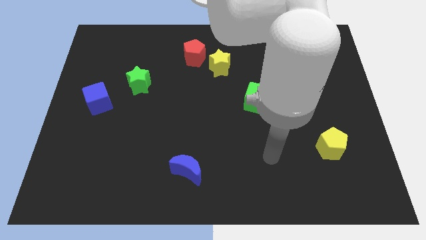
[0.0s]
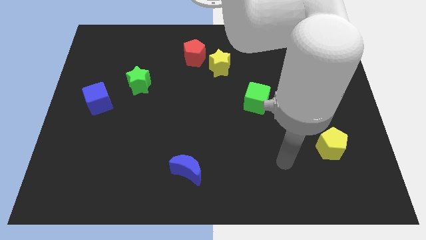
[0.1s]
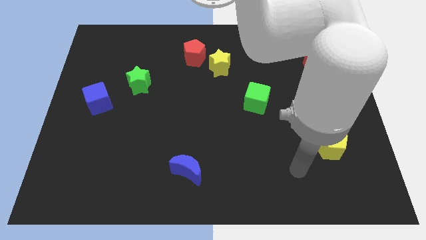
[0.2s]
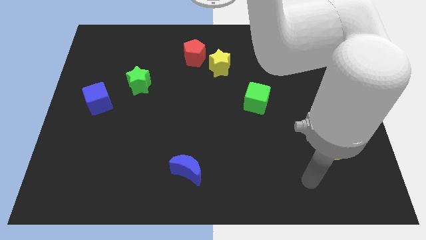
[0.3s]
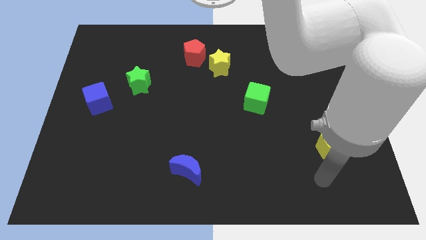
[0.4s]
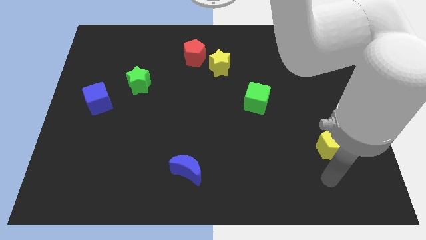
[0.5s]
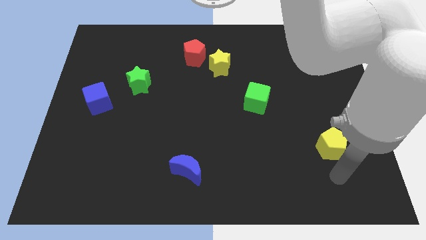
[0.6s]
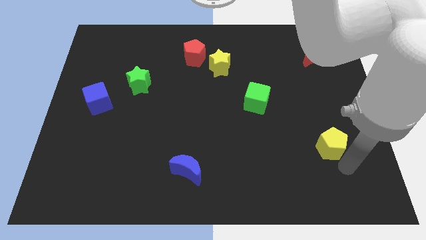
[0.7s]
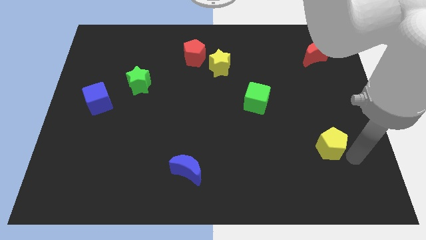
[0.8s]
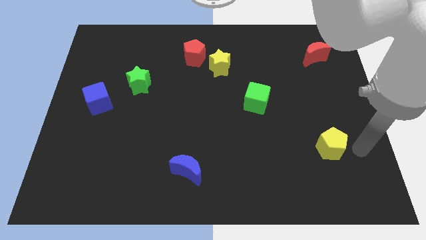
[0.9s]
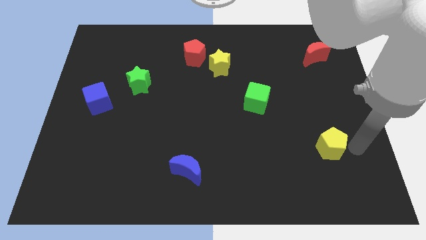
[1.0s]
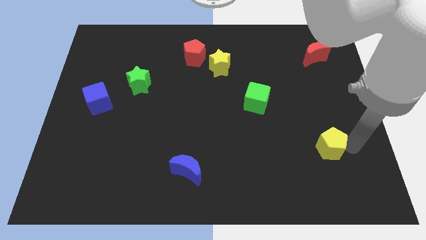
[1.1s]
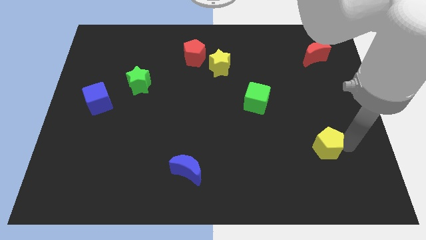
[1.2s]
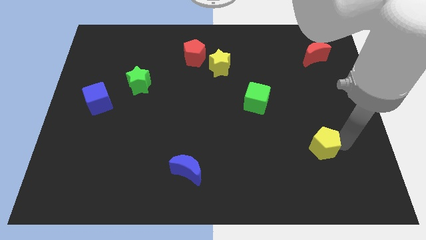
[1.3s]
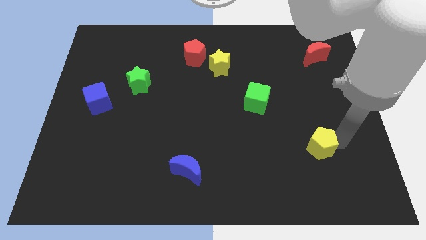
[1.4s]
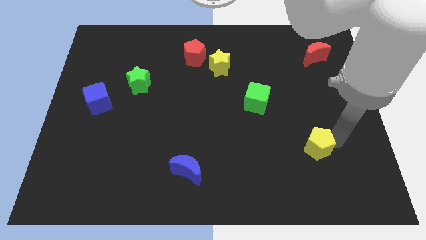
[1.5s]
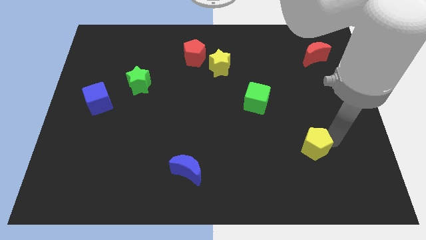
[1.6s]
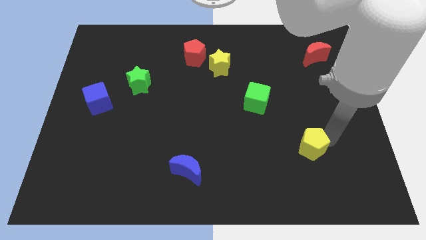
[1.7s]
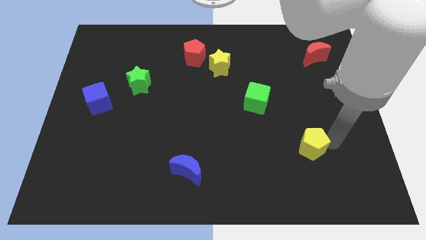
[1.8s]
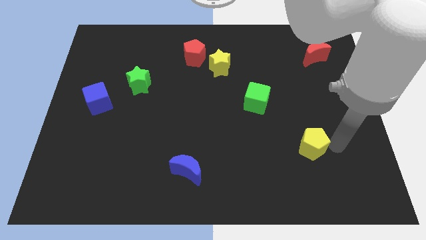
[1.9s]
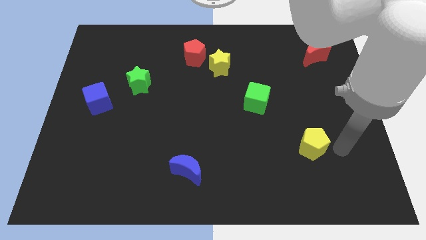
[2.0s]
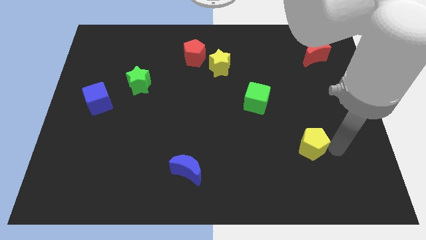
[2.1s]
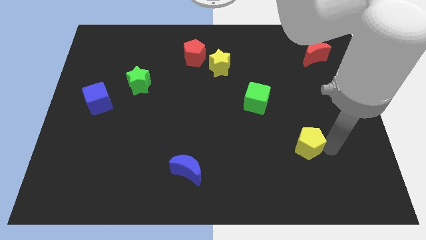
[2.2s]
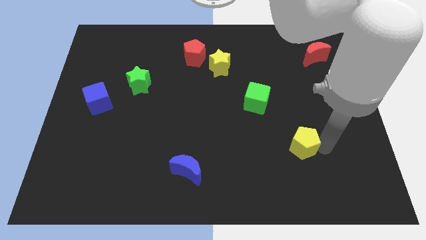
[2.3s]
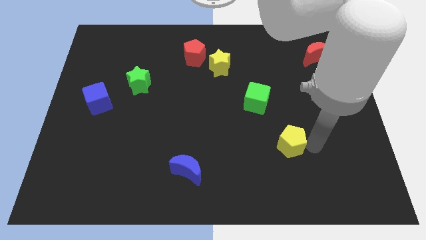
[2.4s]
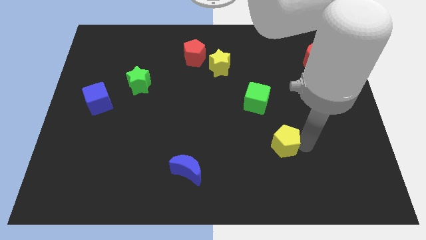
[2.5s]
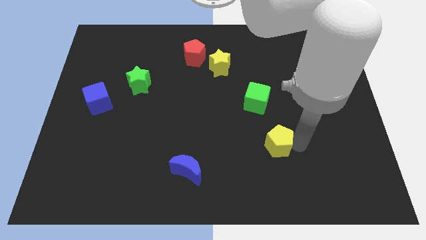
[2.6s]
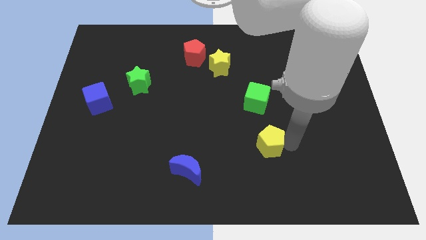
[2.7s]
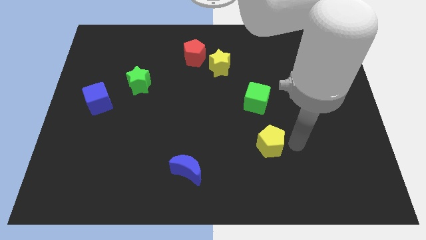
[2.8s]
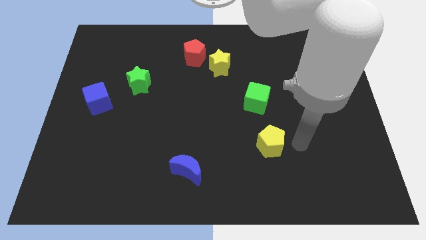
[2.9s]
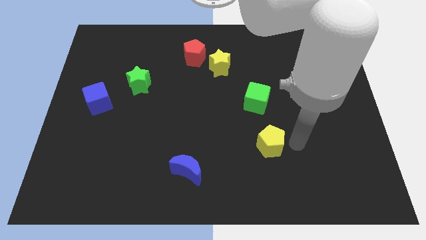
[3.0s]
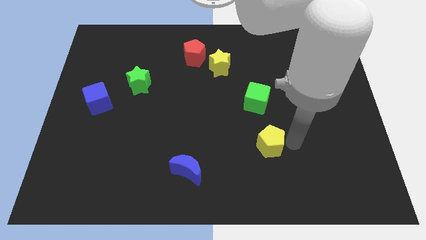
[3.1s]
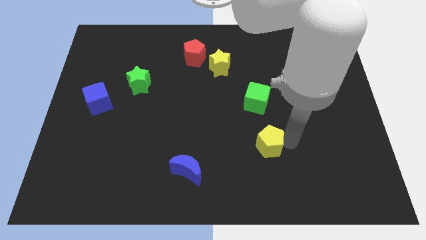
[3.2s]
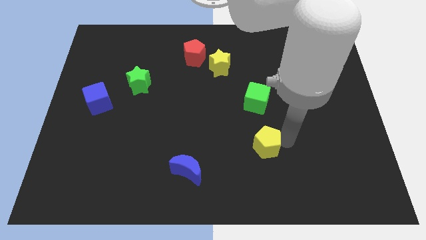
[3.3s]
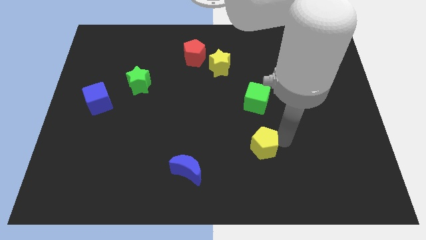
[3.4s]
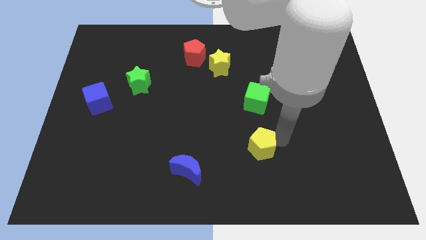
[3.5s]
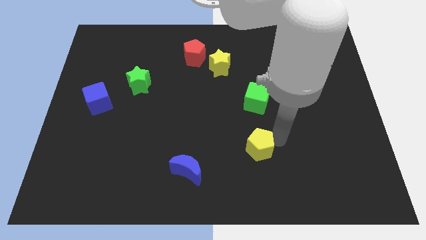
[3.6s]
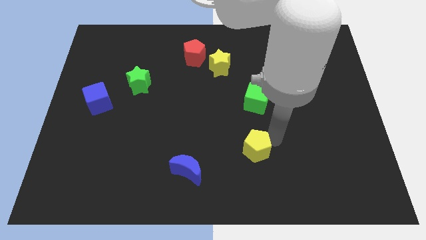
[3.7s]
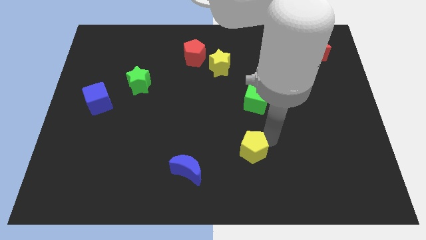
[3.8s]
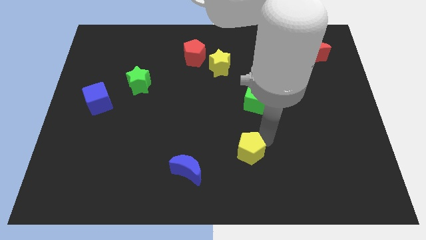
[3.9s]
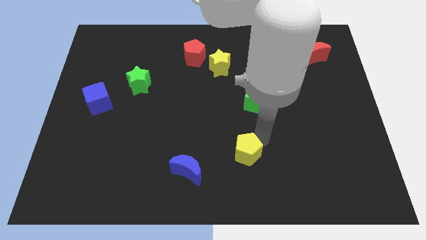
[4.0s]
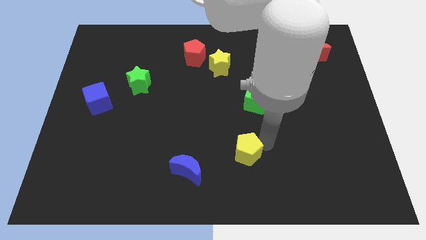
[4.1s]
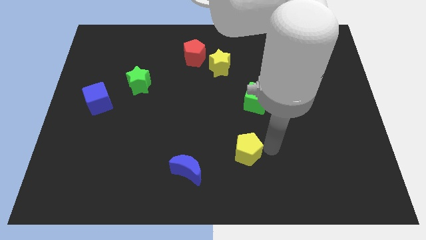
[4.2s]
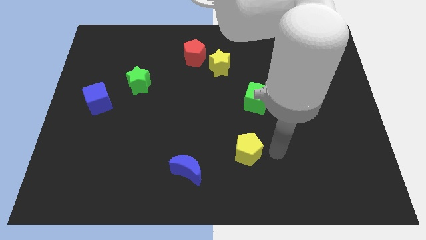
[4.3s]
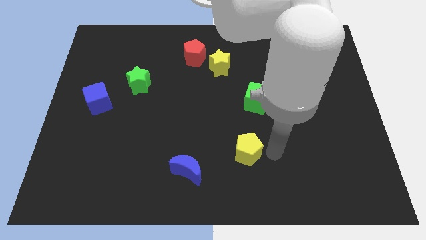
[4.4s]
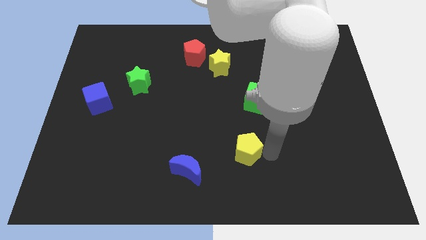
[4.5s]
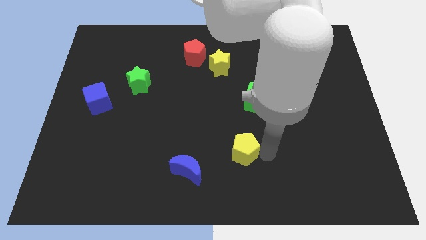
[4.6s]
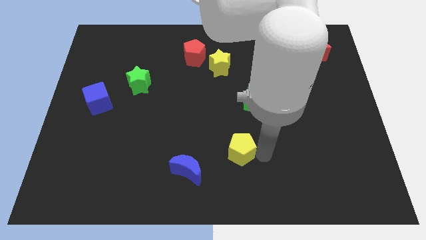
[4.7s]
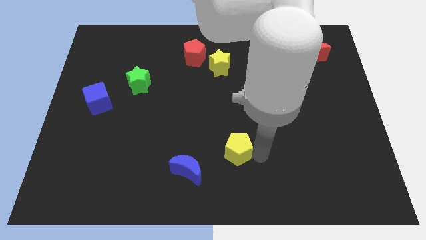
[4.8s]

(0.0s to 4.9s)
put the yellow pentagon to the top right of the blue moon

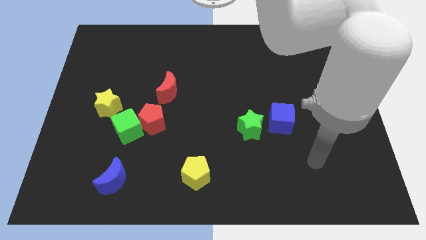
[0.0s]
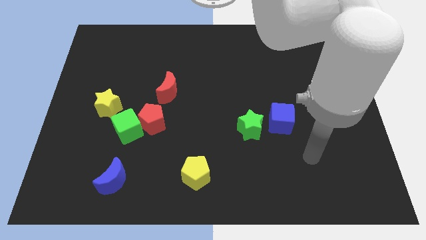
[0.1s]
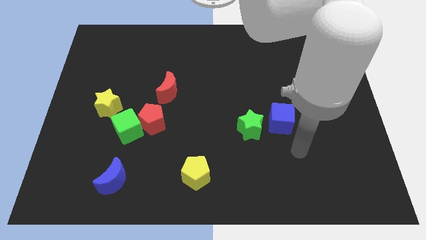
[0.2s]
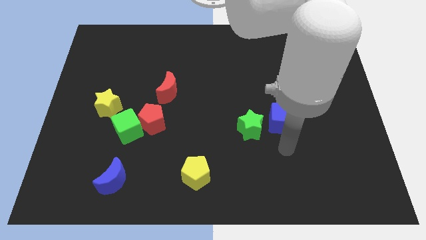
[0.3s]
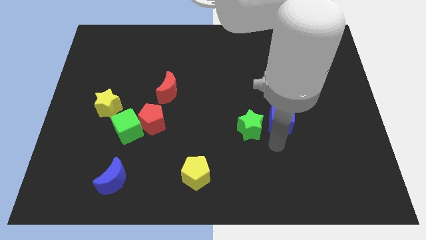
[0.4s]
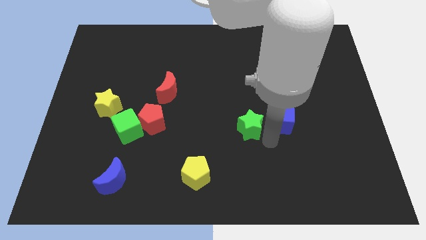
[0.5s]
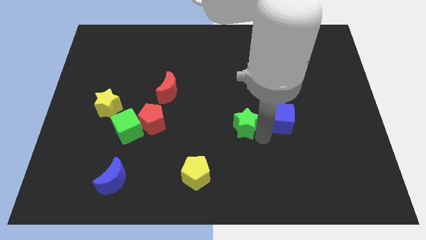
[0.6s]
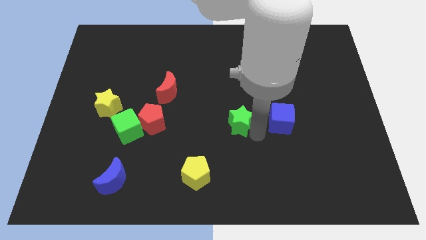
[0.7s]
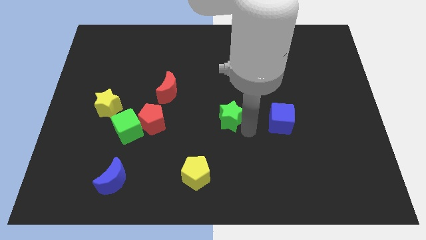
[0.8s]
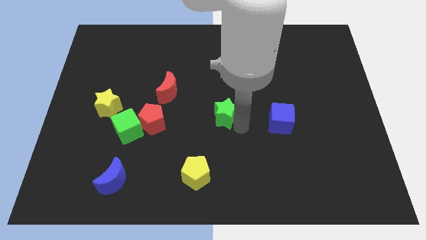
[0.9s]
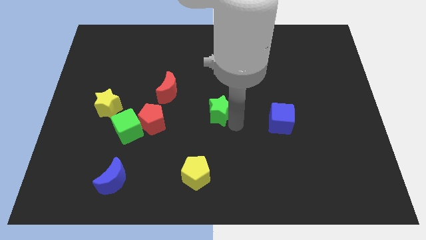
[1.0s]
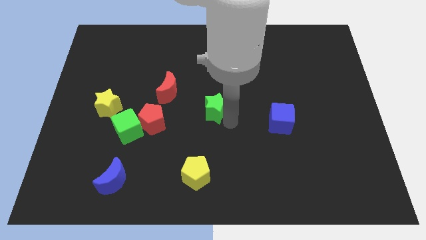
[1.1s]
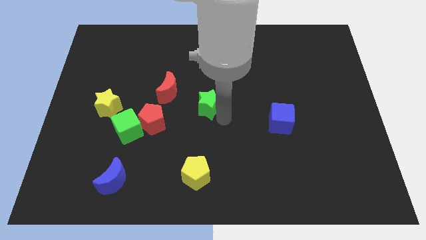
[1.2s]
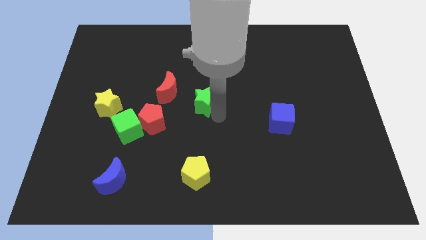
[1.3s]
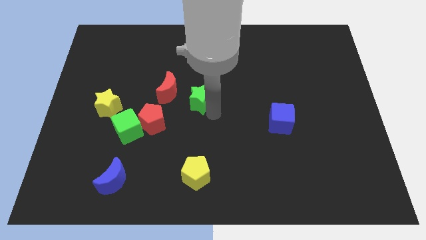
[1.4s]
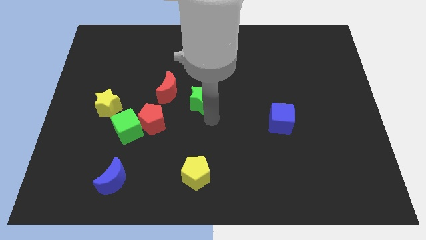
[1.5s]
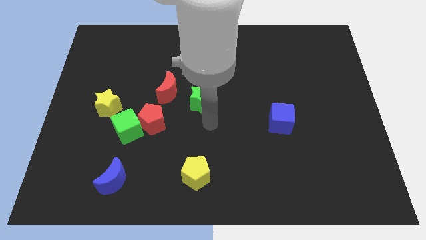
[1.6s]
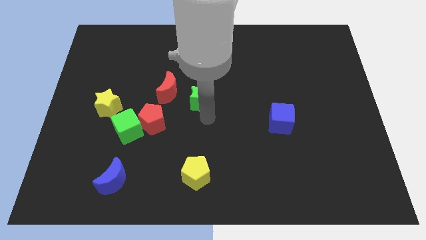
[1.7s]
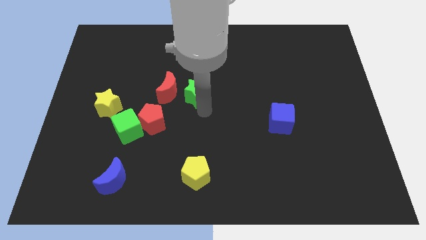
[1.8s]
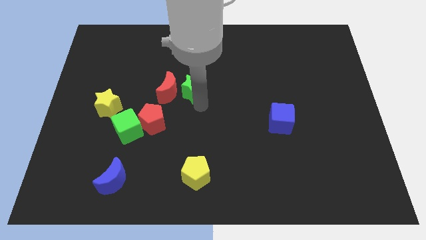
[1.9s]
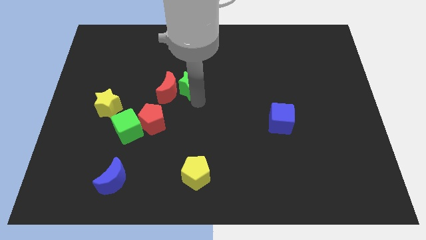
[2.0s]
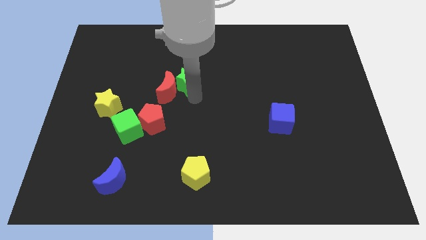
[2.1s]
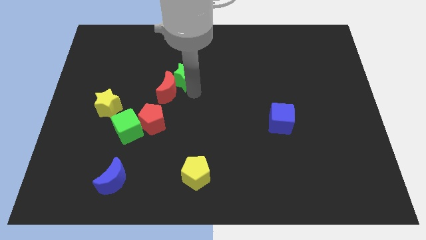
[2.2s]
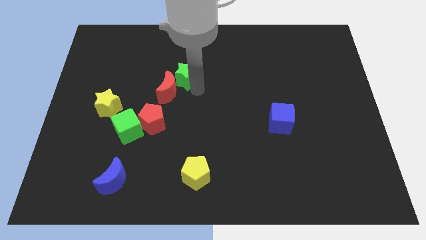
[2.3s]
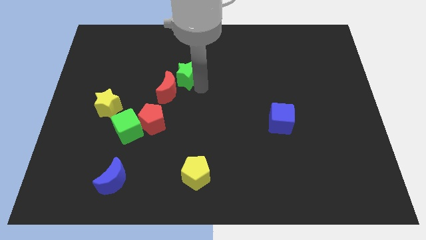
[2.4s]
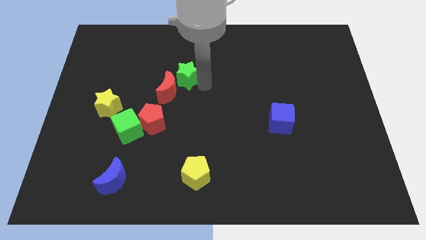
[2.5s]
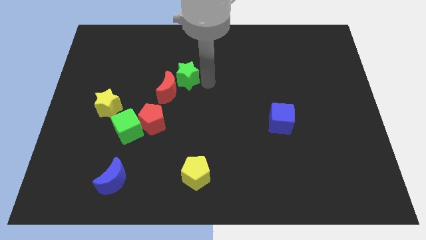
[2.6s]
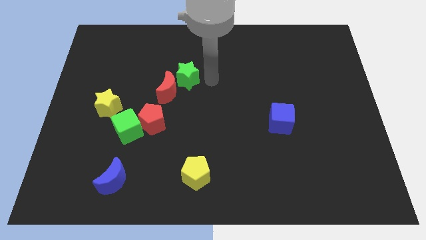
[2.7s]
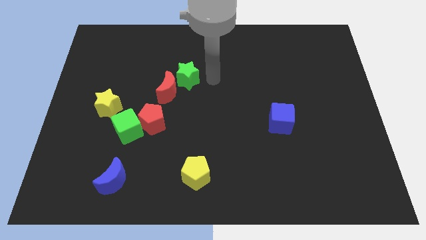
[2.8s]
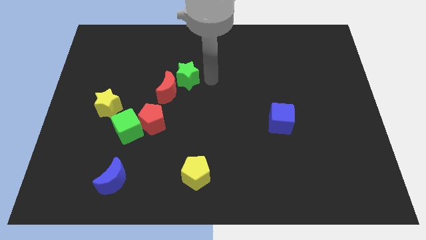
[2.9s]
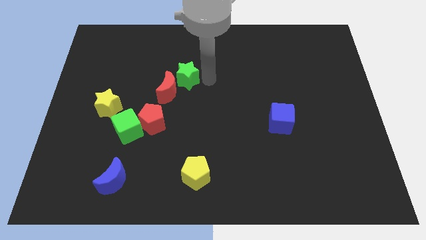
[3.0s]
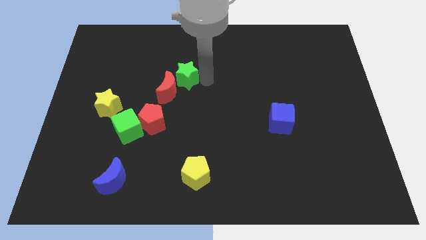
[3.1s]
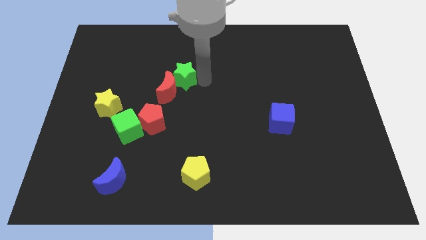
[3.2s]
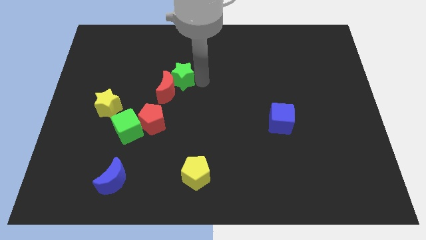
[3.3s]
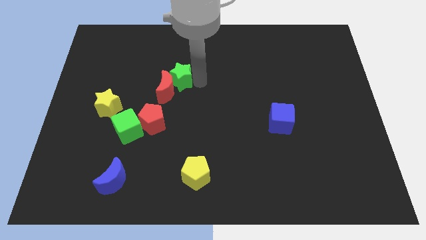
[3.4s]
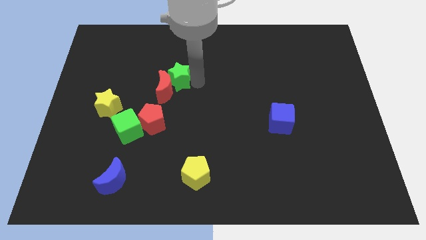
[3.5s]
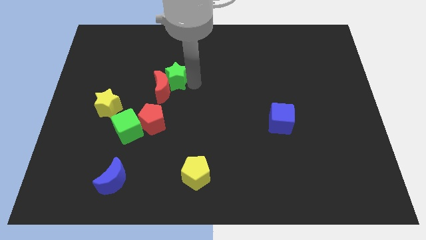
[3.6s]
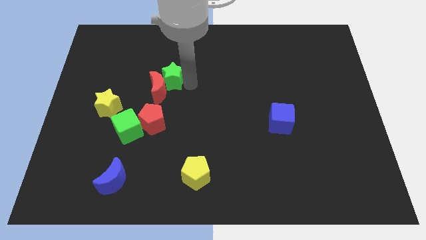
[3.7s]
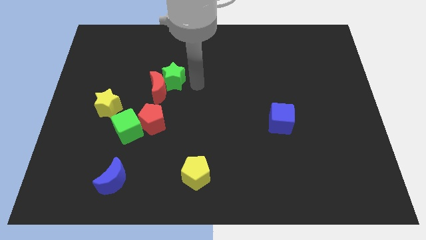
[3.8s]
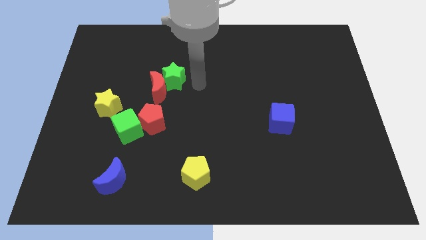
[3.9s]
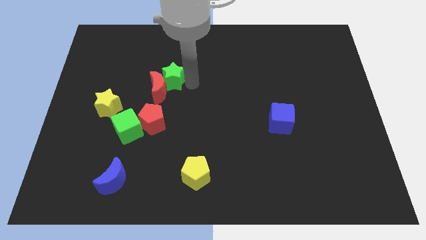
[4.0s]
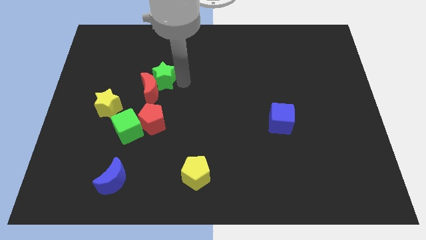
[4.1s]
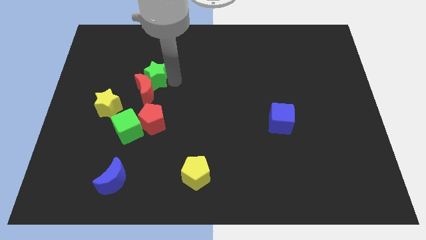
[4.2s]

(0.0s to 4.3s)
push the green star to the top left side of the red moon
